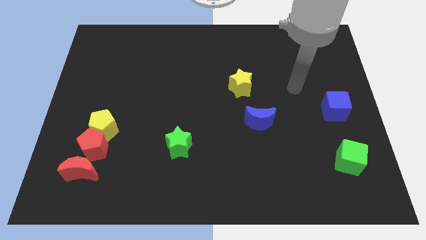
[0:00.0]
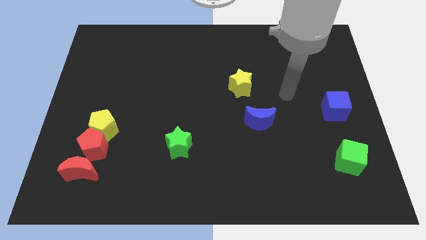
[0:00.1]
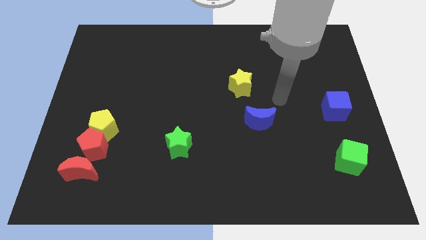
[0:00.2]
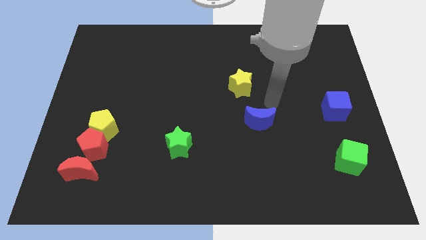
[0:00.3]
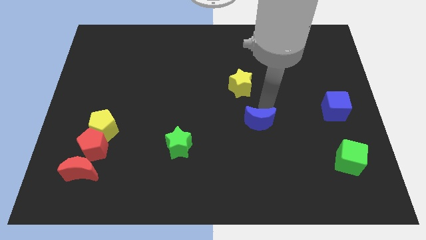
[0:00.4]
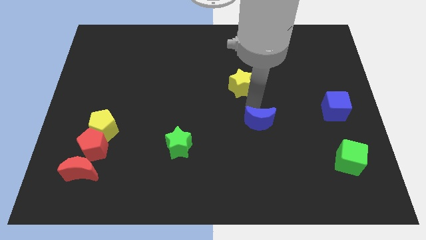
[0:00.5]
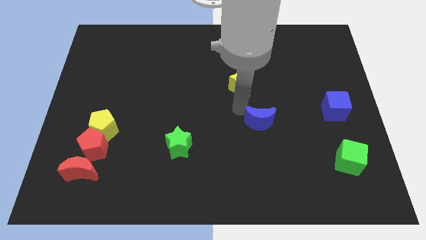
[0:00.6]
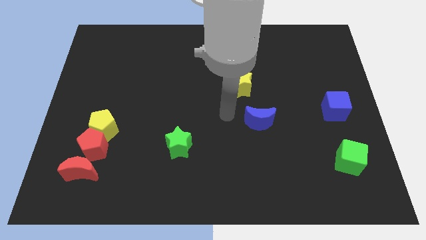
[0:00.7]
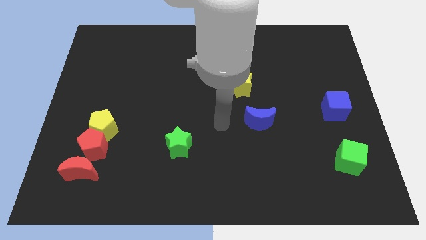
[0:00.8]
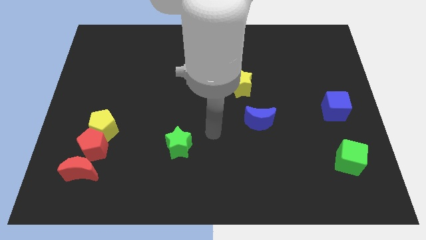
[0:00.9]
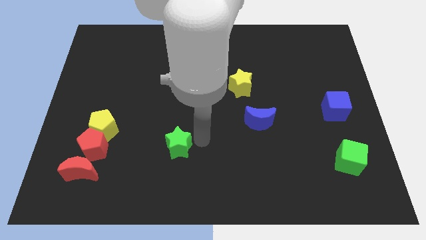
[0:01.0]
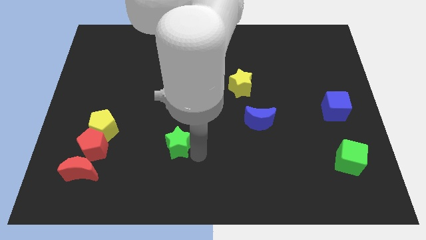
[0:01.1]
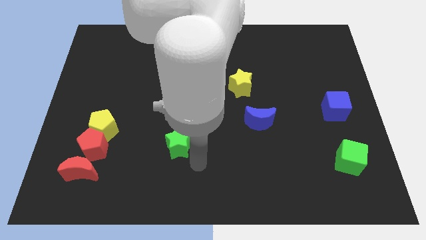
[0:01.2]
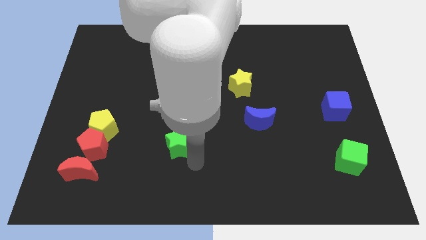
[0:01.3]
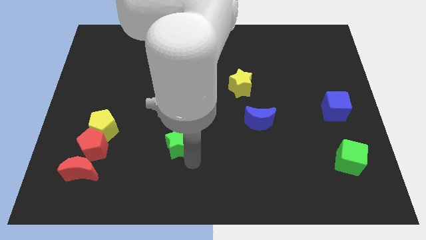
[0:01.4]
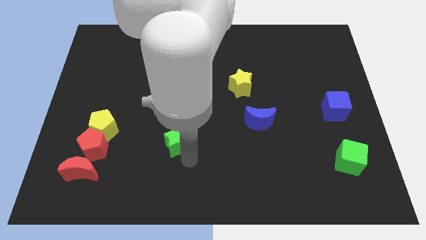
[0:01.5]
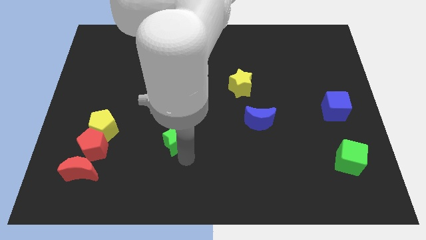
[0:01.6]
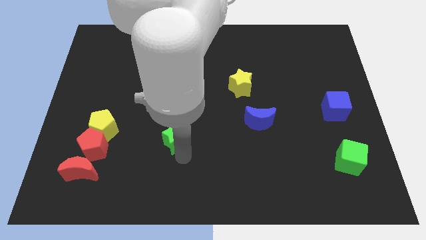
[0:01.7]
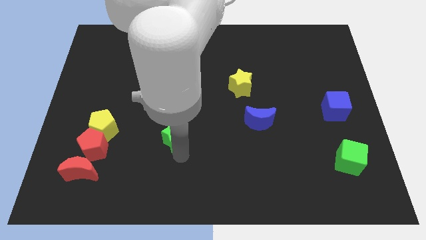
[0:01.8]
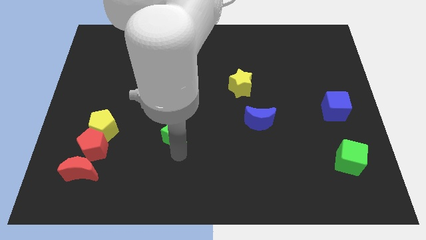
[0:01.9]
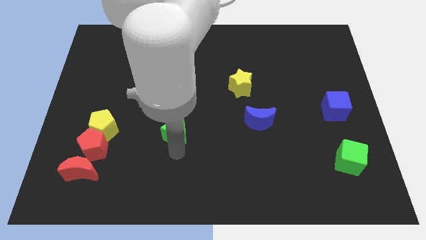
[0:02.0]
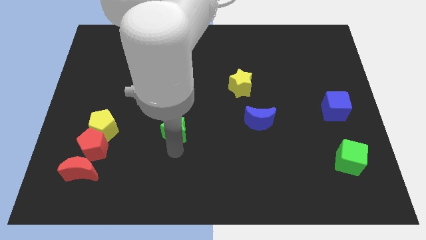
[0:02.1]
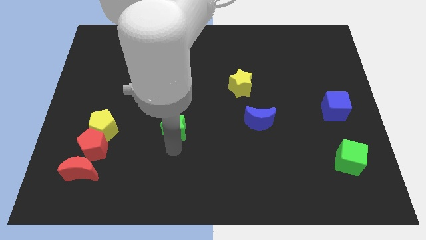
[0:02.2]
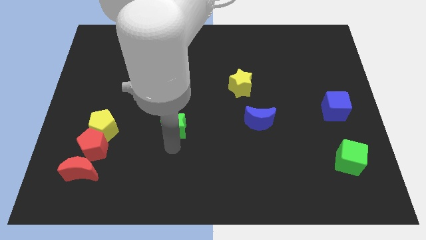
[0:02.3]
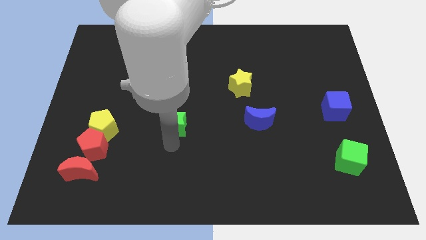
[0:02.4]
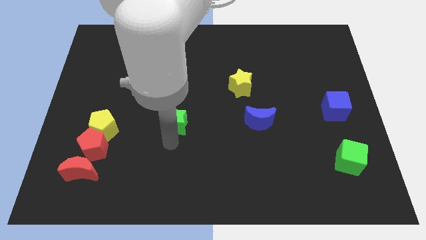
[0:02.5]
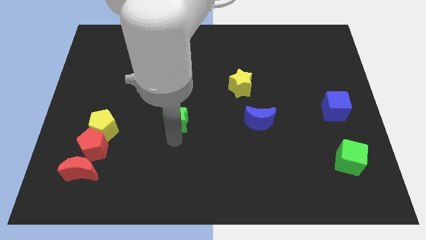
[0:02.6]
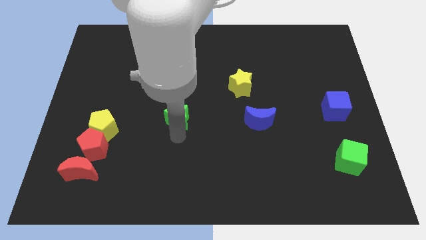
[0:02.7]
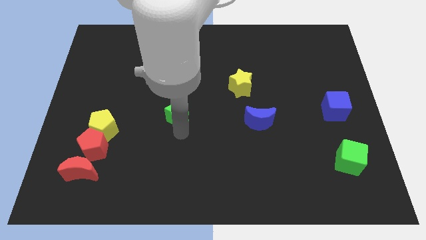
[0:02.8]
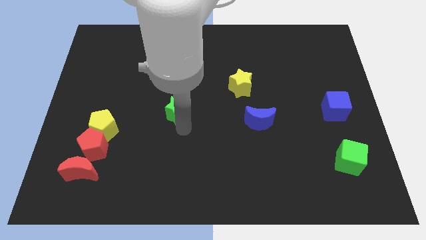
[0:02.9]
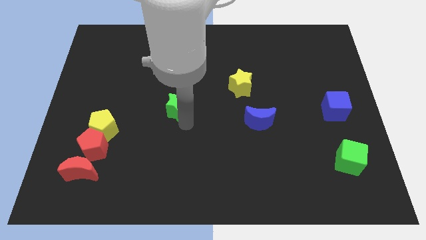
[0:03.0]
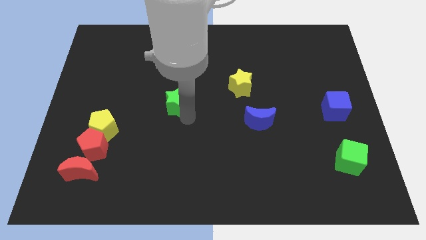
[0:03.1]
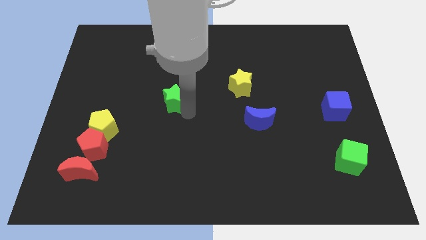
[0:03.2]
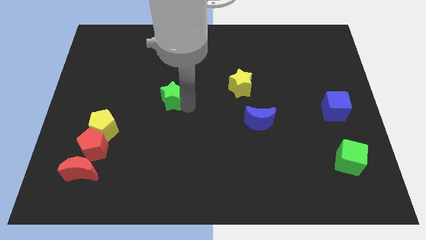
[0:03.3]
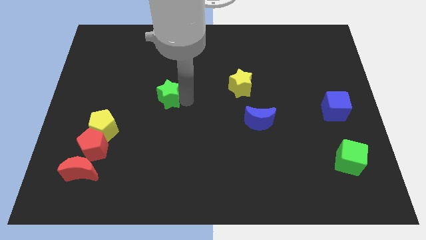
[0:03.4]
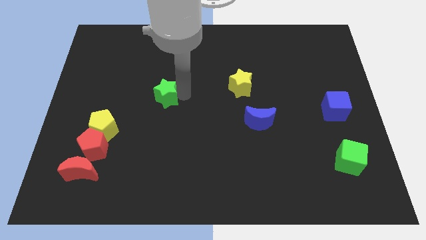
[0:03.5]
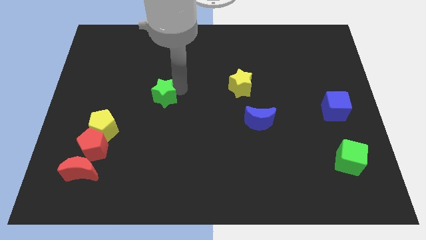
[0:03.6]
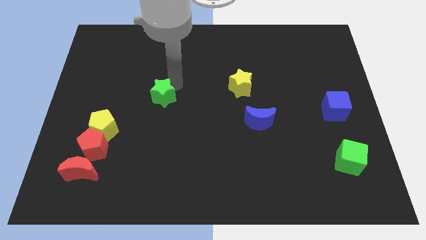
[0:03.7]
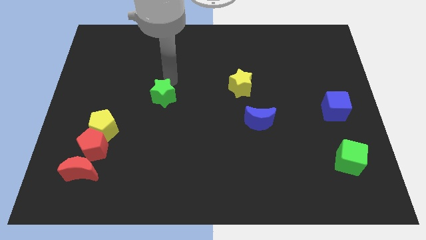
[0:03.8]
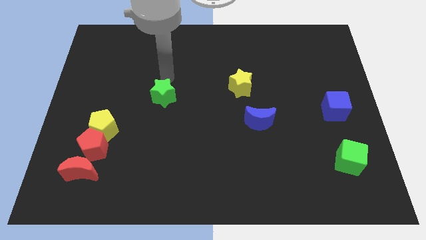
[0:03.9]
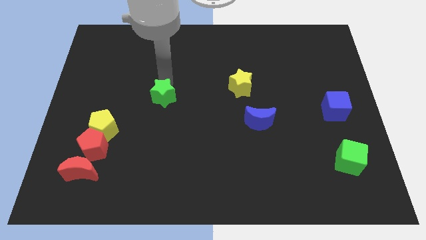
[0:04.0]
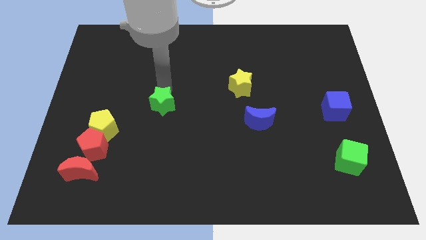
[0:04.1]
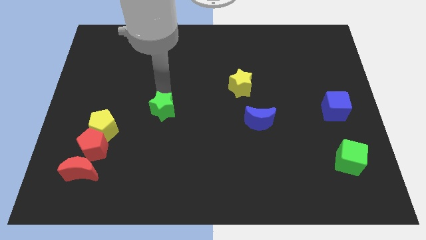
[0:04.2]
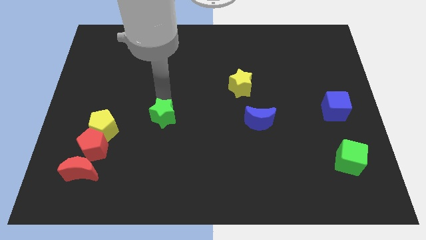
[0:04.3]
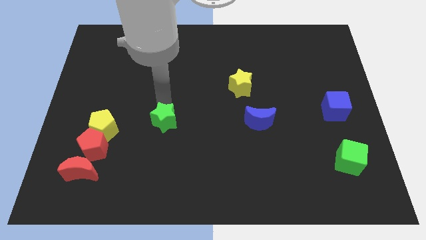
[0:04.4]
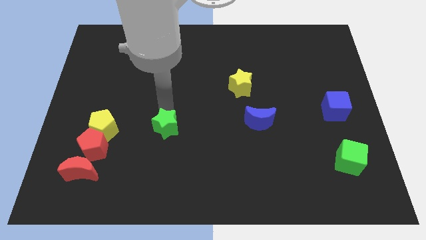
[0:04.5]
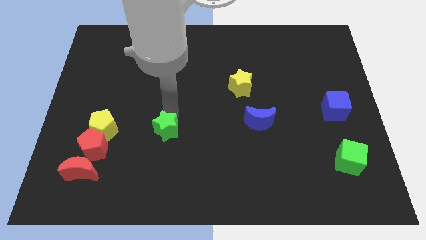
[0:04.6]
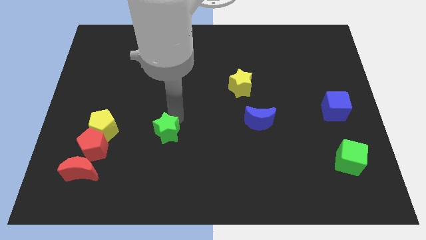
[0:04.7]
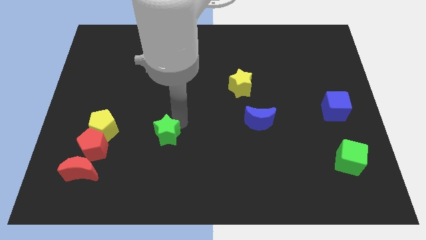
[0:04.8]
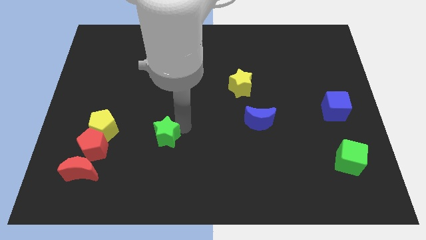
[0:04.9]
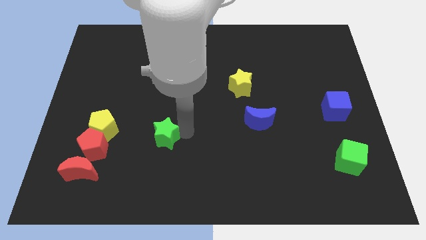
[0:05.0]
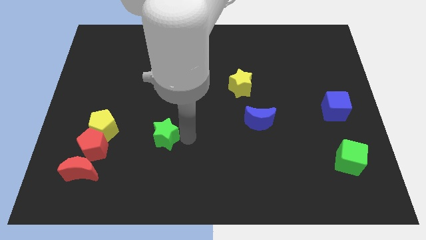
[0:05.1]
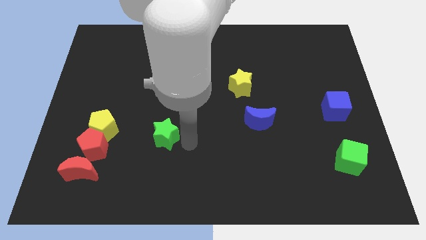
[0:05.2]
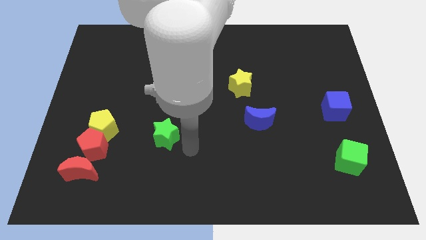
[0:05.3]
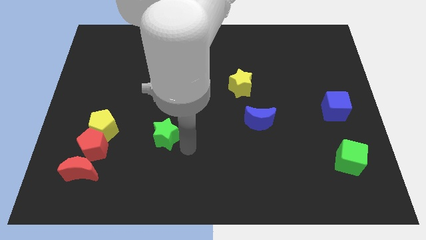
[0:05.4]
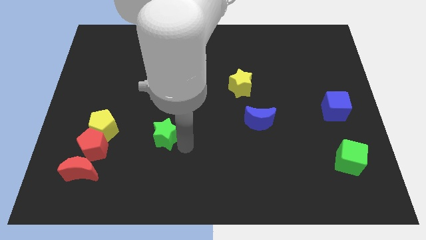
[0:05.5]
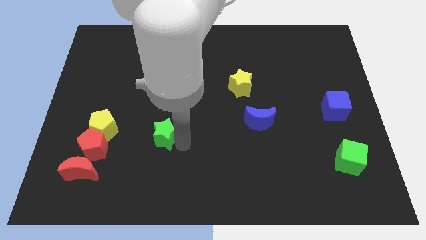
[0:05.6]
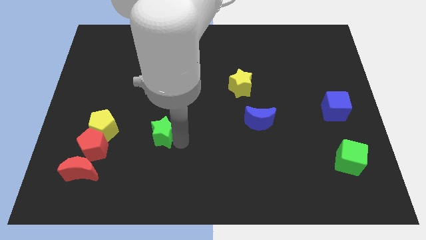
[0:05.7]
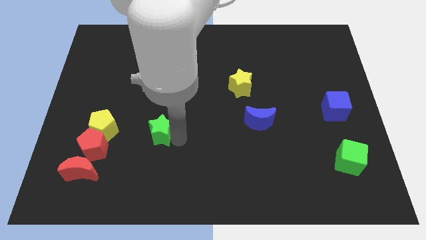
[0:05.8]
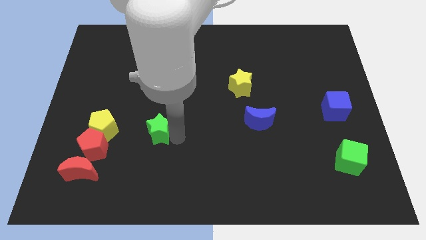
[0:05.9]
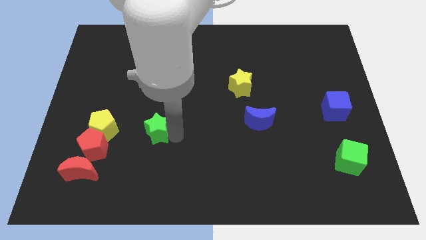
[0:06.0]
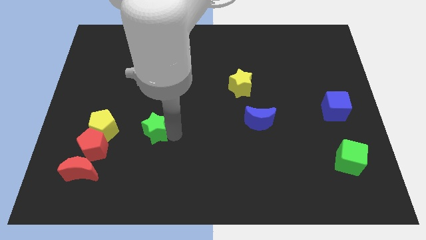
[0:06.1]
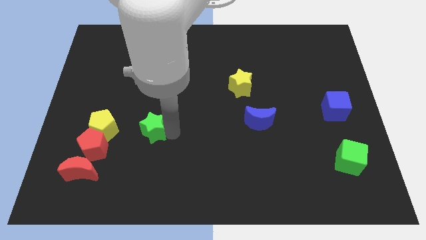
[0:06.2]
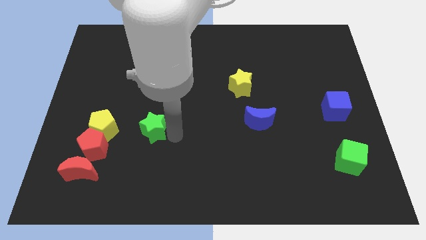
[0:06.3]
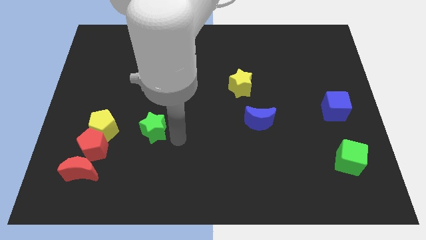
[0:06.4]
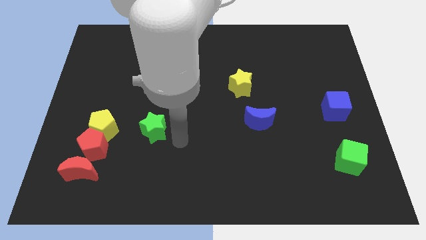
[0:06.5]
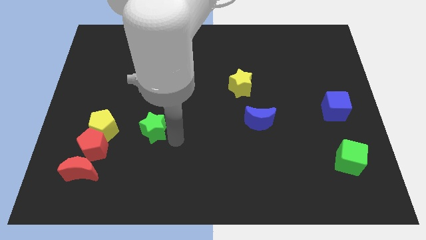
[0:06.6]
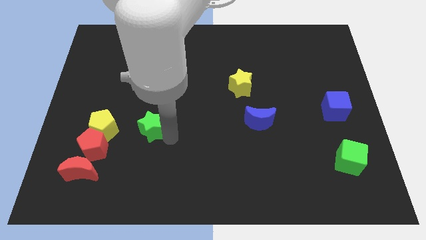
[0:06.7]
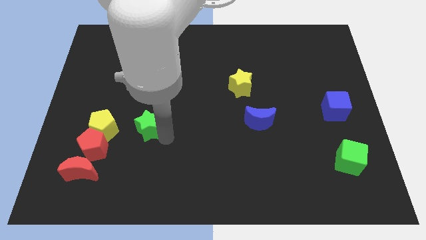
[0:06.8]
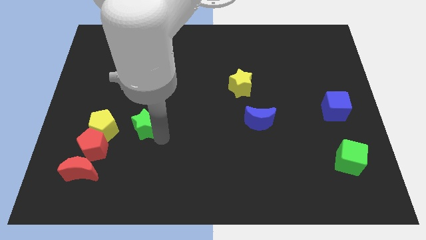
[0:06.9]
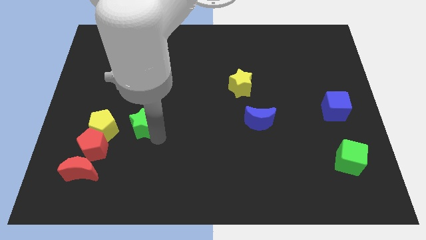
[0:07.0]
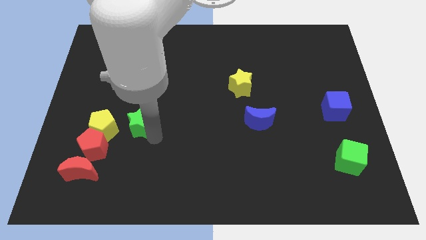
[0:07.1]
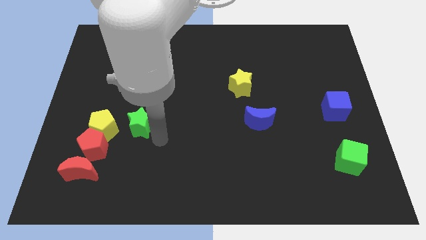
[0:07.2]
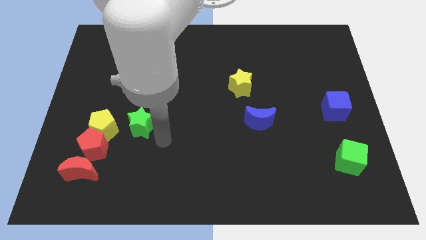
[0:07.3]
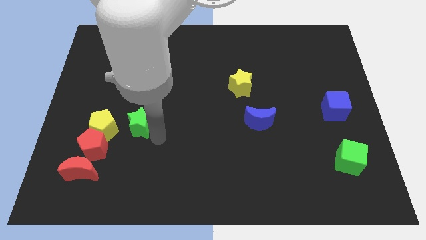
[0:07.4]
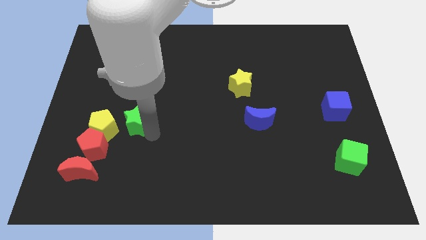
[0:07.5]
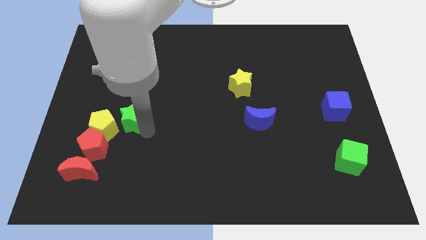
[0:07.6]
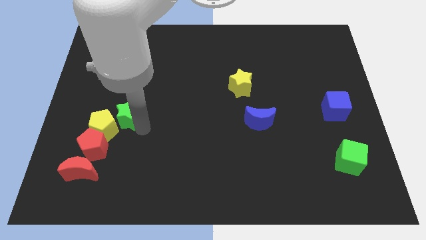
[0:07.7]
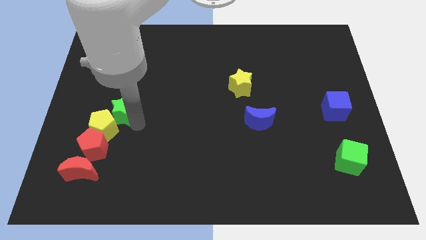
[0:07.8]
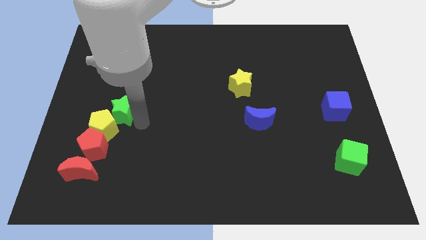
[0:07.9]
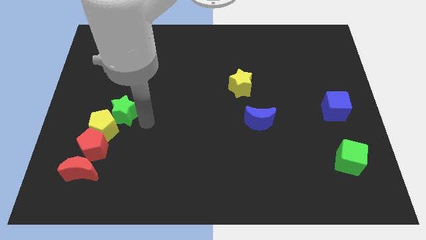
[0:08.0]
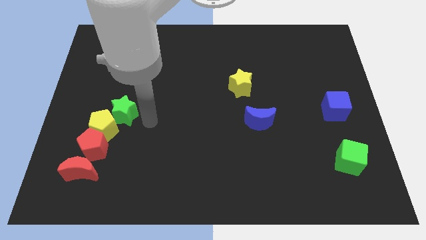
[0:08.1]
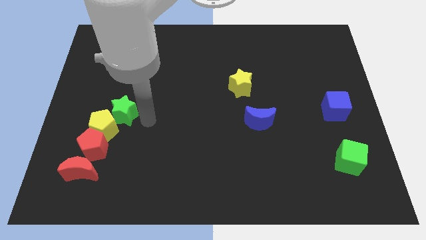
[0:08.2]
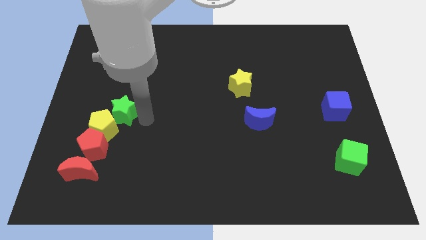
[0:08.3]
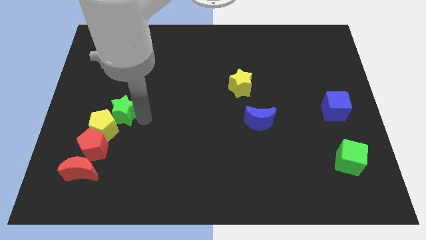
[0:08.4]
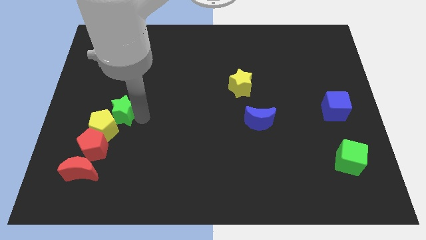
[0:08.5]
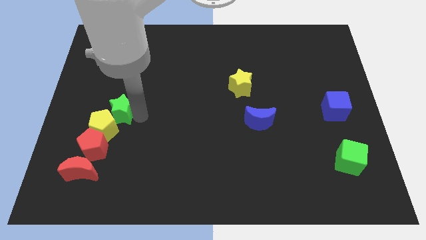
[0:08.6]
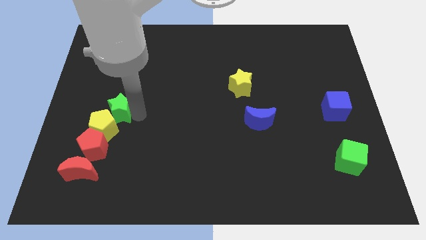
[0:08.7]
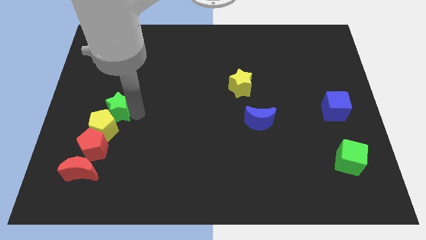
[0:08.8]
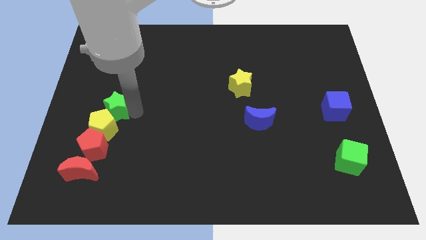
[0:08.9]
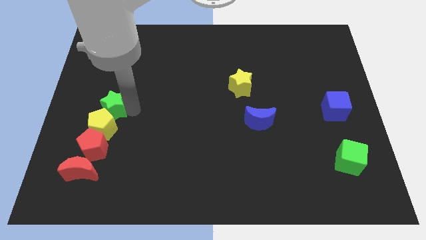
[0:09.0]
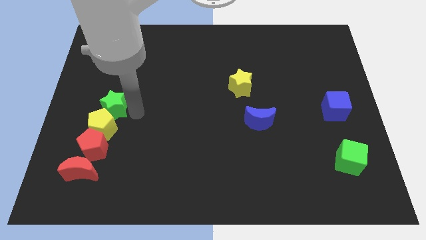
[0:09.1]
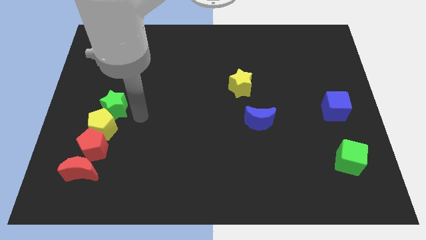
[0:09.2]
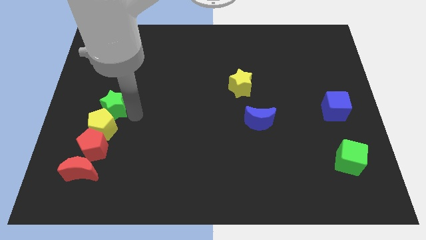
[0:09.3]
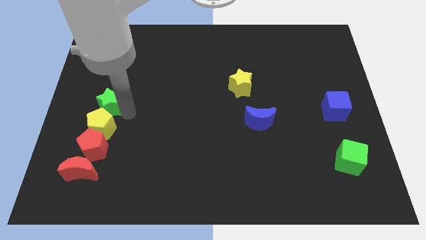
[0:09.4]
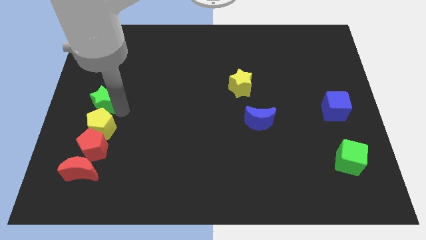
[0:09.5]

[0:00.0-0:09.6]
move the green star to the left side of the board
